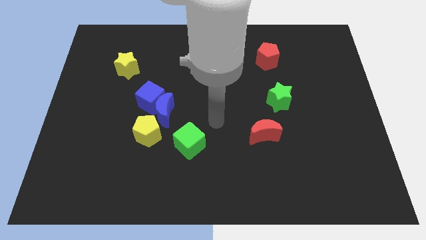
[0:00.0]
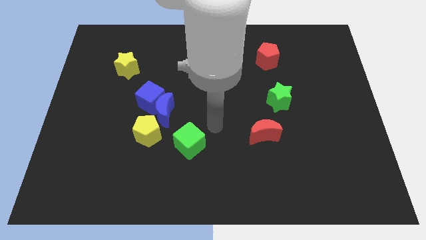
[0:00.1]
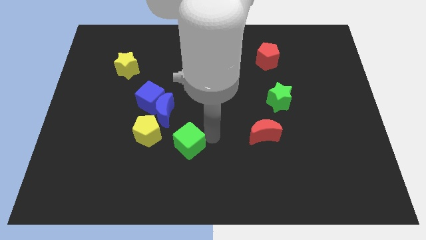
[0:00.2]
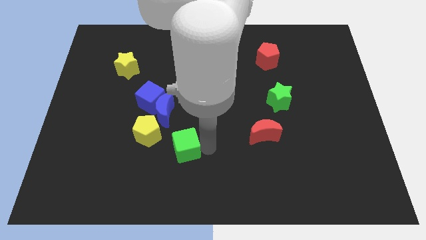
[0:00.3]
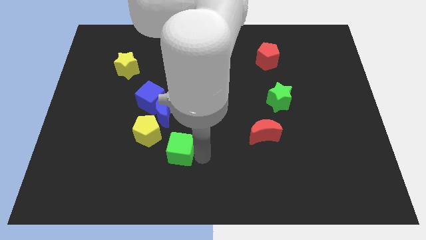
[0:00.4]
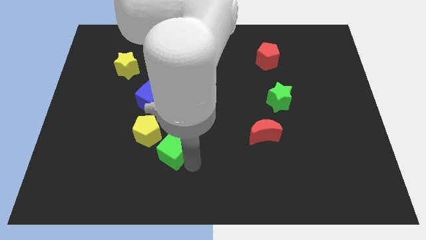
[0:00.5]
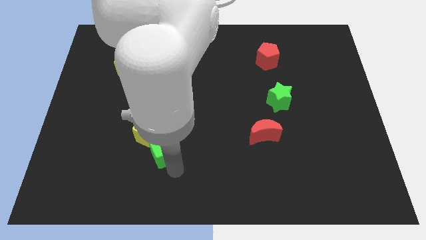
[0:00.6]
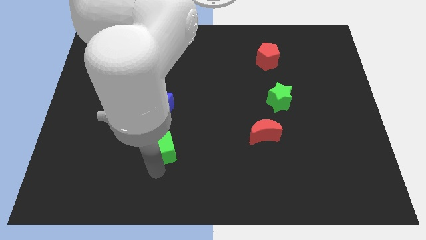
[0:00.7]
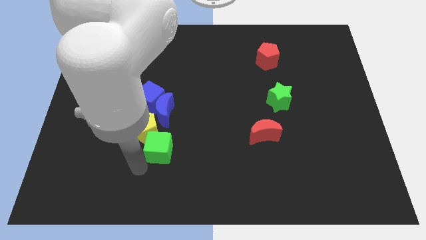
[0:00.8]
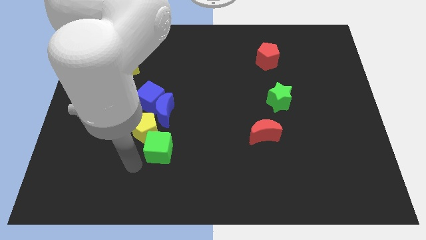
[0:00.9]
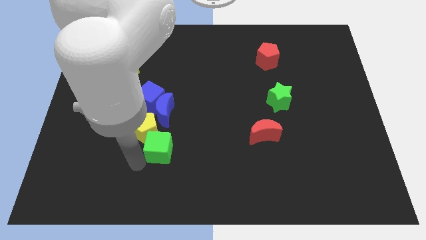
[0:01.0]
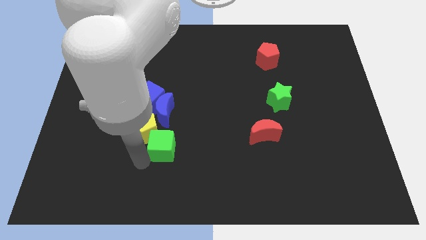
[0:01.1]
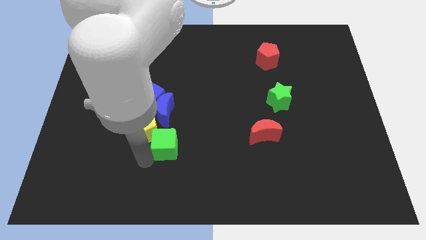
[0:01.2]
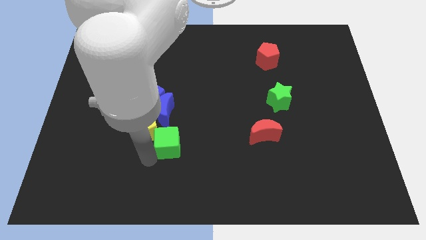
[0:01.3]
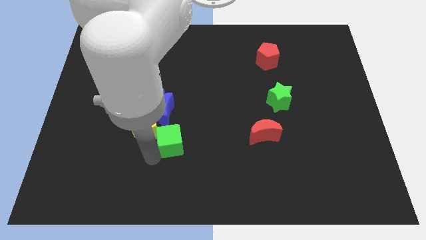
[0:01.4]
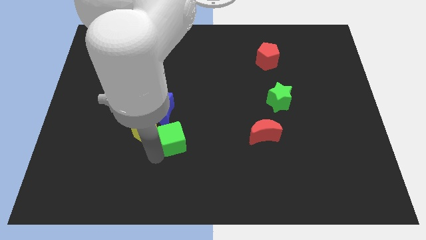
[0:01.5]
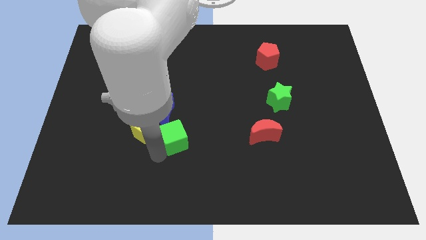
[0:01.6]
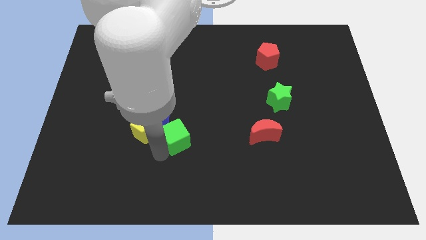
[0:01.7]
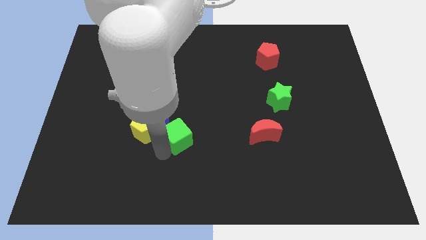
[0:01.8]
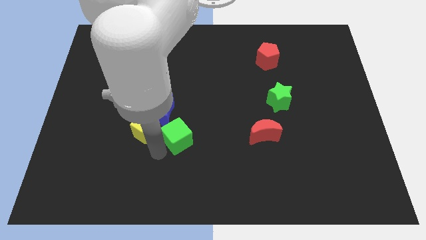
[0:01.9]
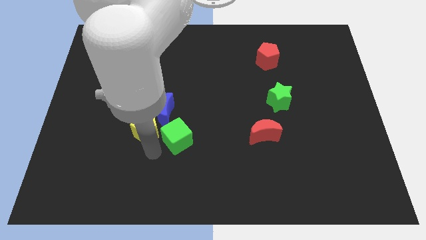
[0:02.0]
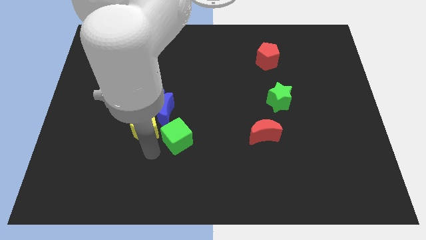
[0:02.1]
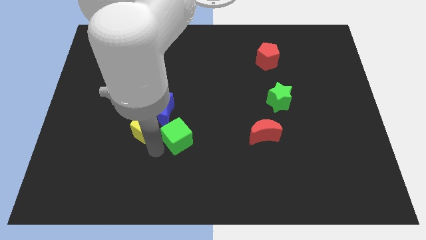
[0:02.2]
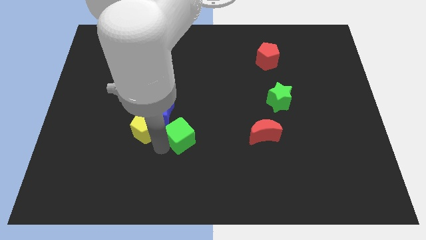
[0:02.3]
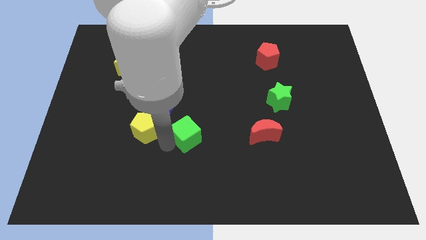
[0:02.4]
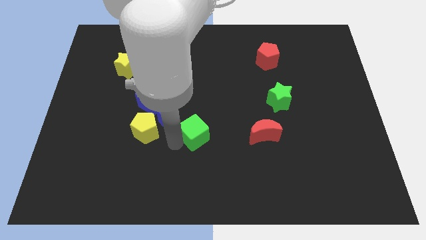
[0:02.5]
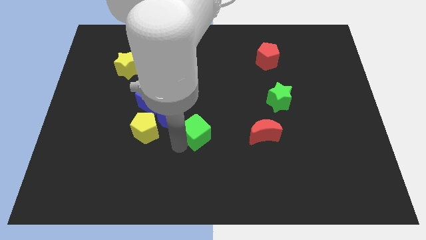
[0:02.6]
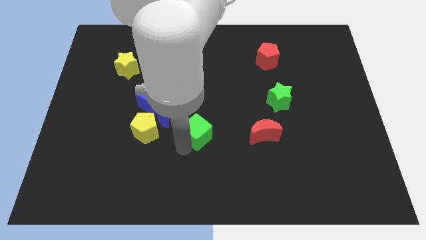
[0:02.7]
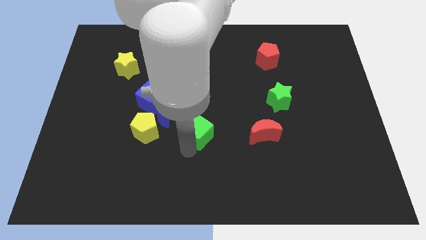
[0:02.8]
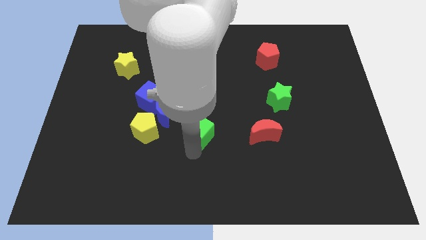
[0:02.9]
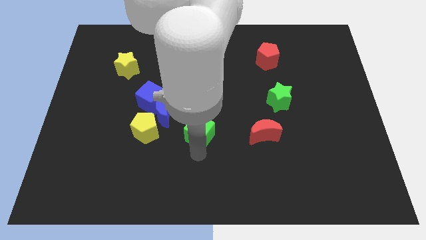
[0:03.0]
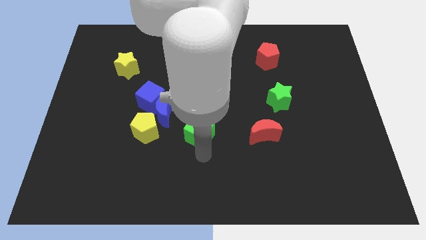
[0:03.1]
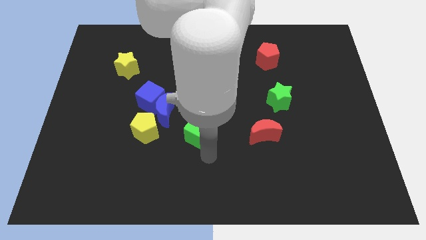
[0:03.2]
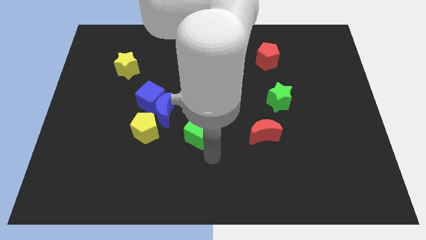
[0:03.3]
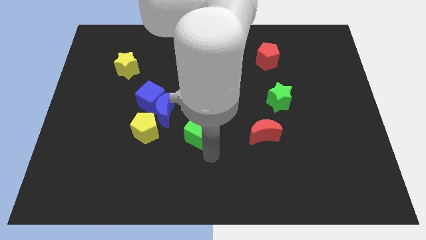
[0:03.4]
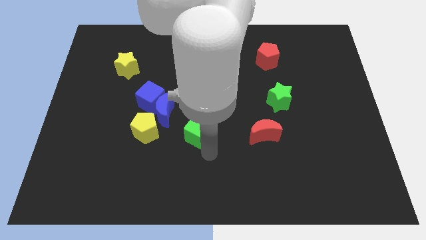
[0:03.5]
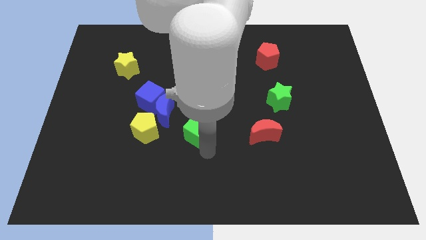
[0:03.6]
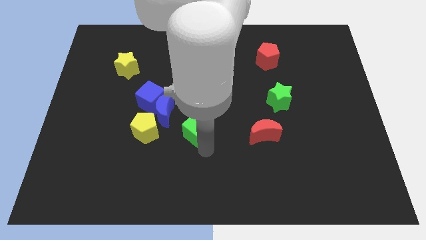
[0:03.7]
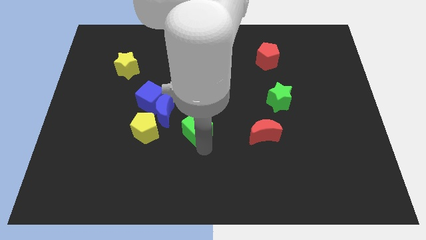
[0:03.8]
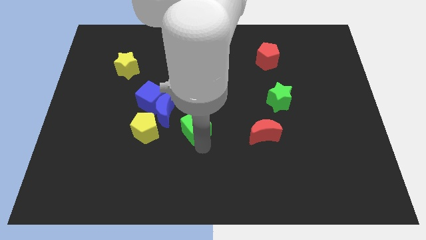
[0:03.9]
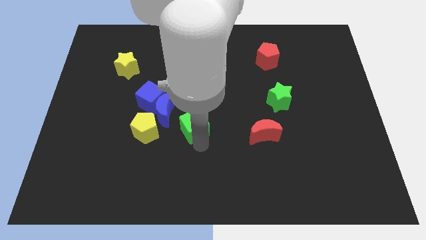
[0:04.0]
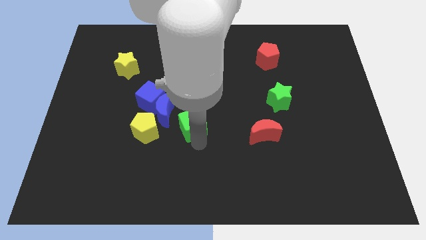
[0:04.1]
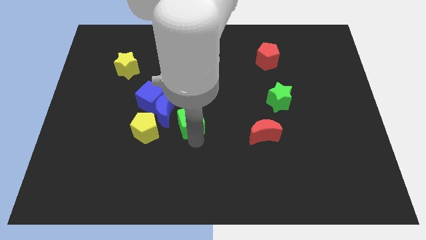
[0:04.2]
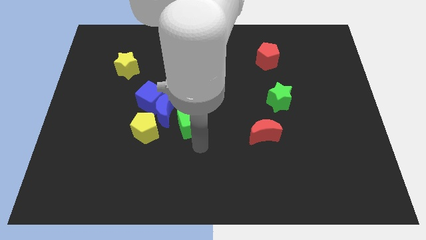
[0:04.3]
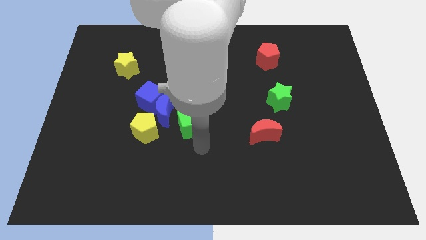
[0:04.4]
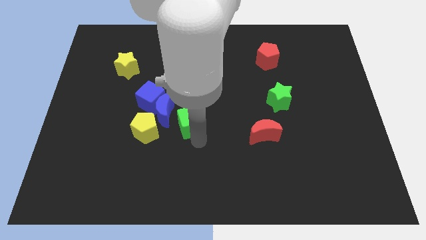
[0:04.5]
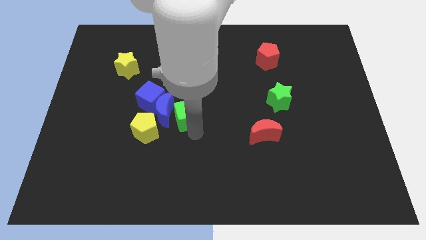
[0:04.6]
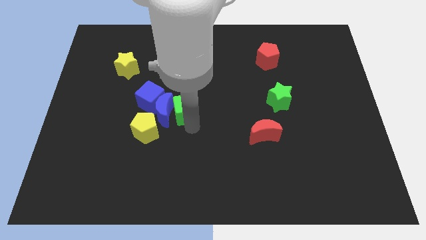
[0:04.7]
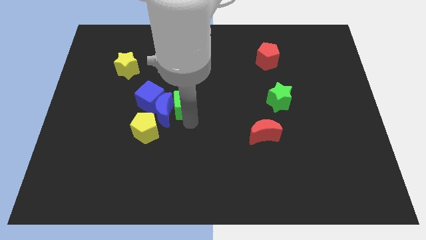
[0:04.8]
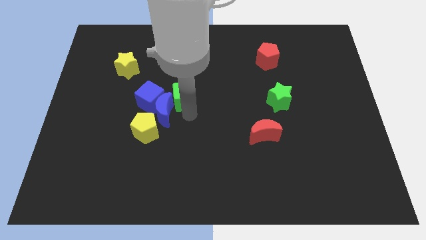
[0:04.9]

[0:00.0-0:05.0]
slightly push the green cube upwards and then to the left

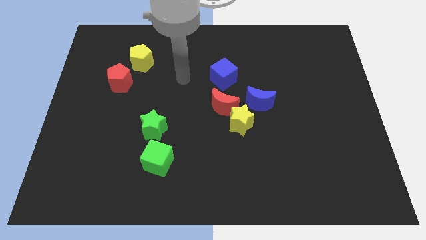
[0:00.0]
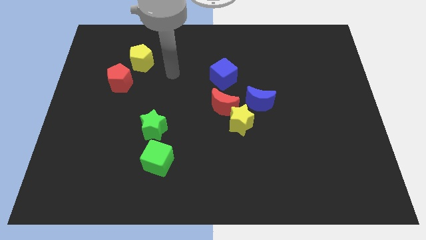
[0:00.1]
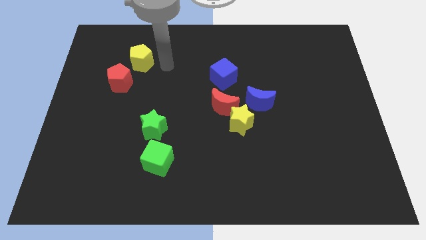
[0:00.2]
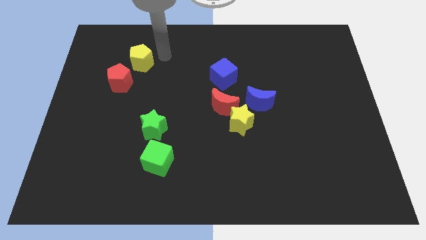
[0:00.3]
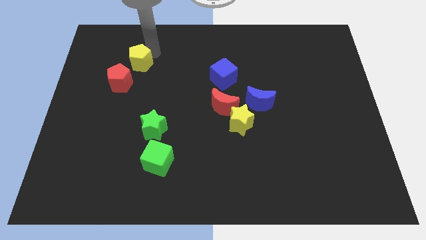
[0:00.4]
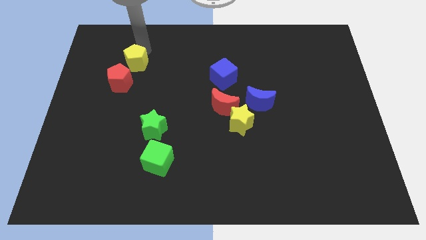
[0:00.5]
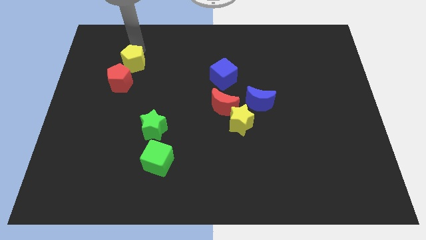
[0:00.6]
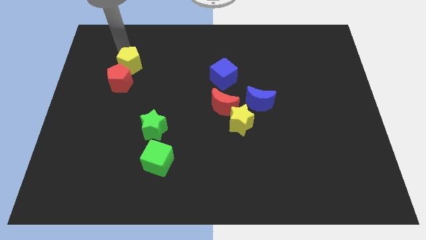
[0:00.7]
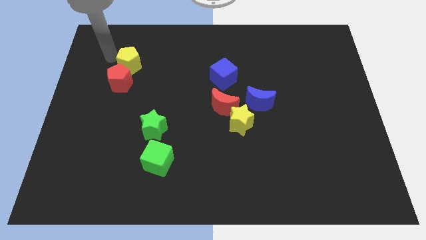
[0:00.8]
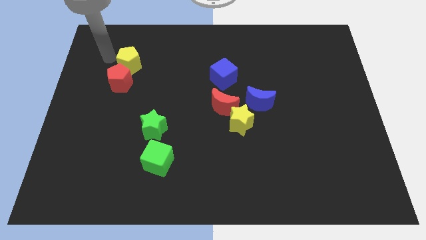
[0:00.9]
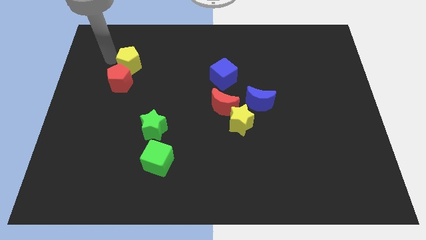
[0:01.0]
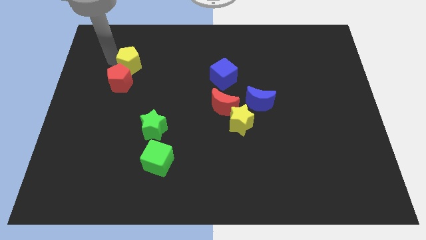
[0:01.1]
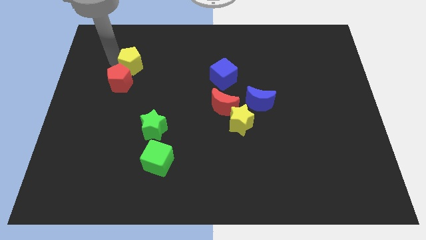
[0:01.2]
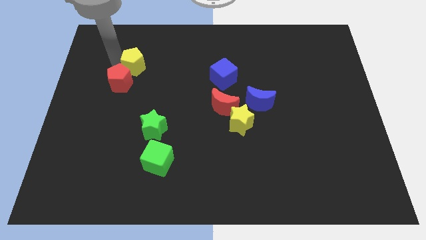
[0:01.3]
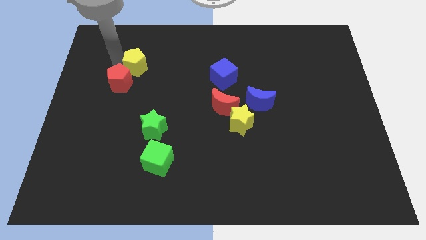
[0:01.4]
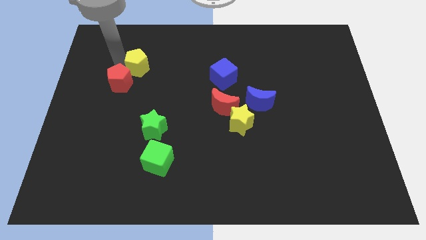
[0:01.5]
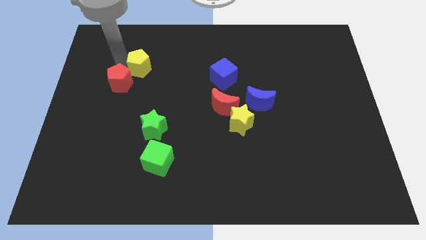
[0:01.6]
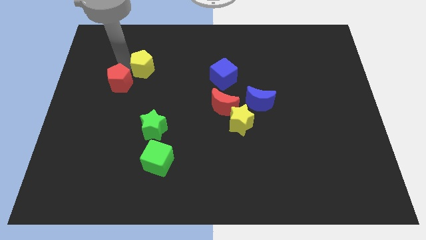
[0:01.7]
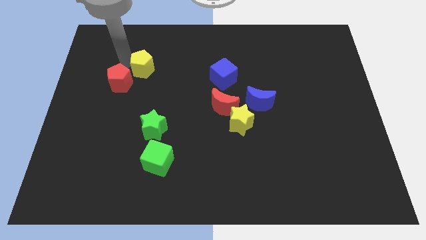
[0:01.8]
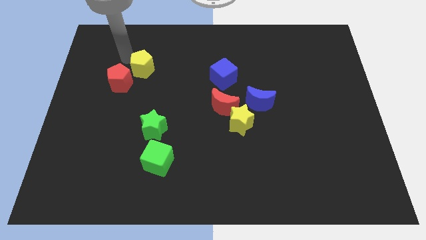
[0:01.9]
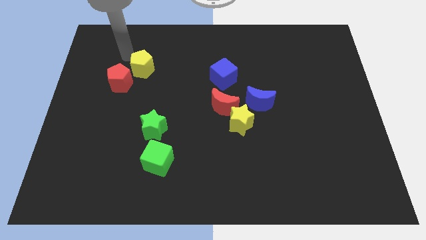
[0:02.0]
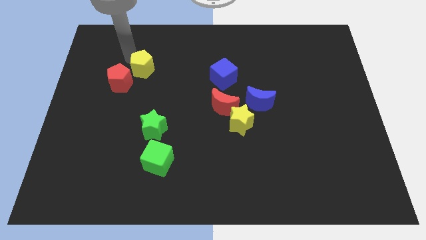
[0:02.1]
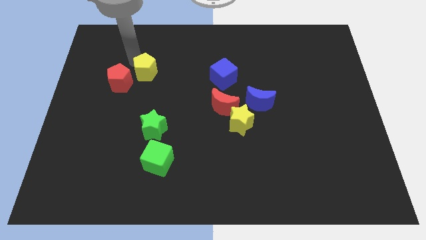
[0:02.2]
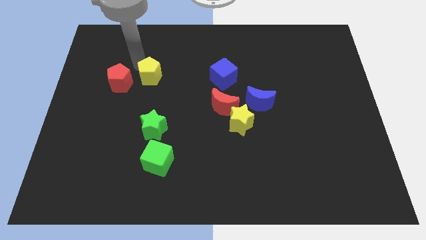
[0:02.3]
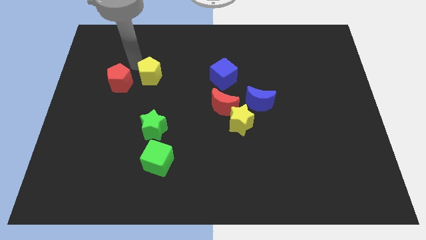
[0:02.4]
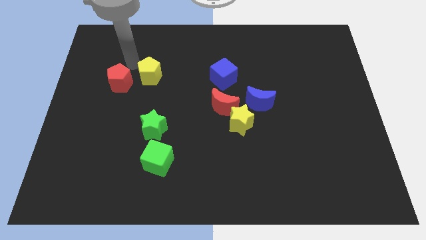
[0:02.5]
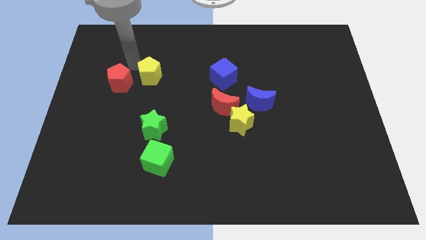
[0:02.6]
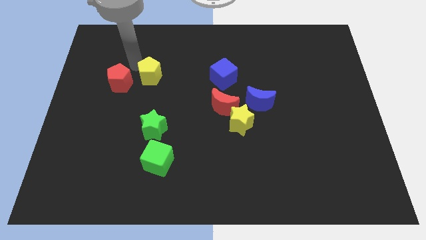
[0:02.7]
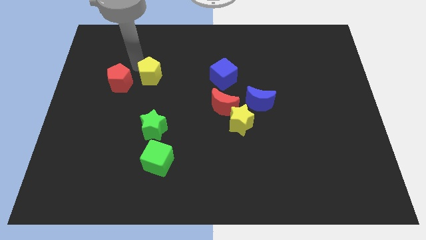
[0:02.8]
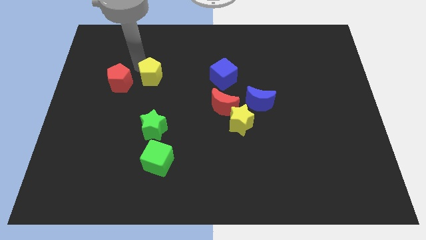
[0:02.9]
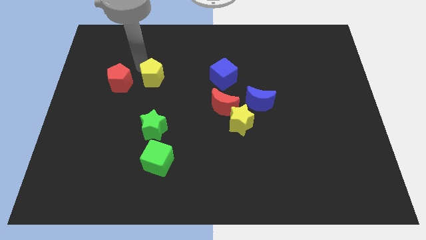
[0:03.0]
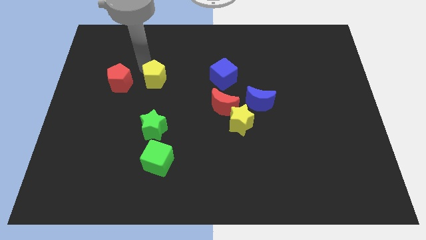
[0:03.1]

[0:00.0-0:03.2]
push the yellow pentagon downwards and then right somewhat

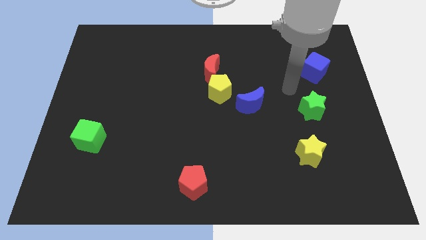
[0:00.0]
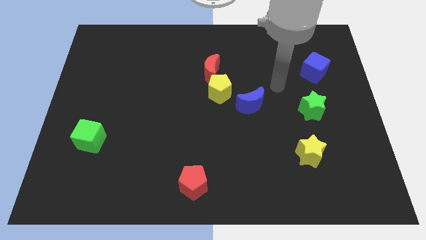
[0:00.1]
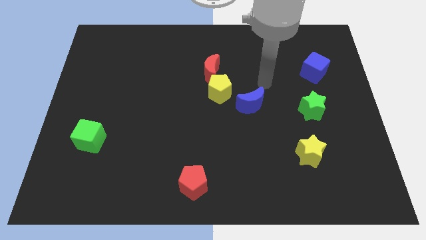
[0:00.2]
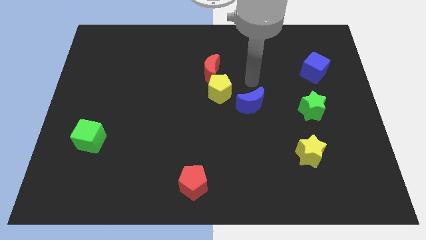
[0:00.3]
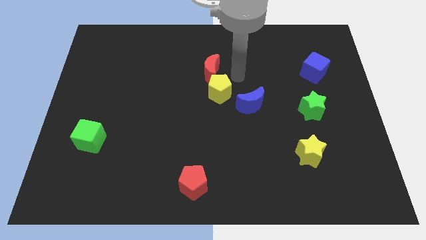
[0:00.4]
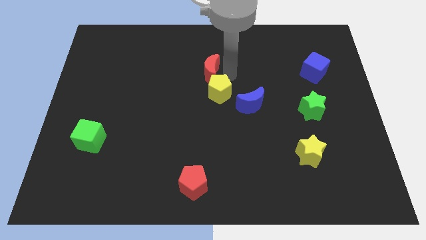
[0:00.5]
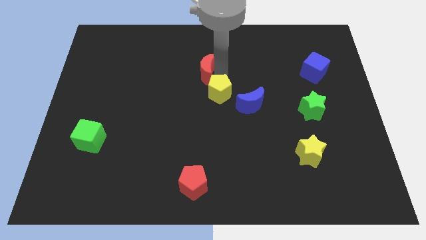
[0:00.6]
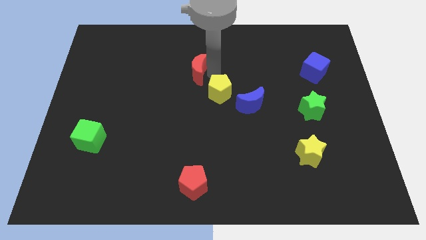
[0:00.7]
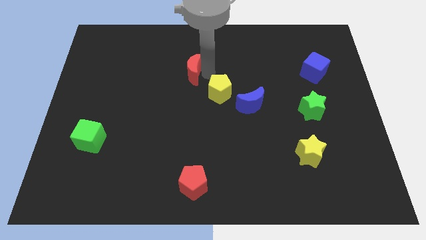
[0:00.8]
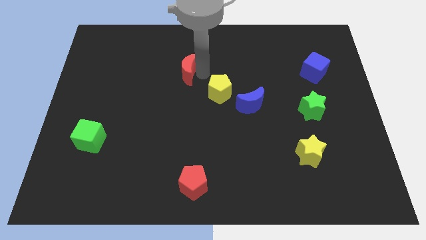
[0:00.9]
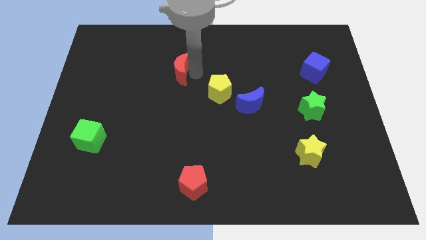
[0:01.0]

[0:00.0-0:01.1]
slide the red moon to the left a bit
